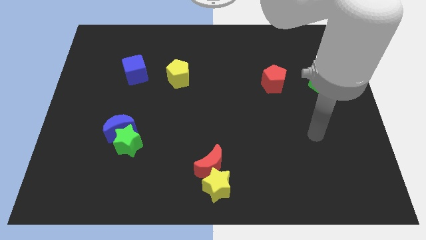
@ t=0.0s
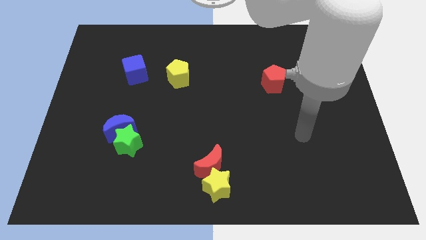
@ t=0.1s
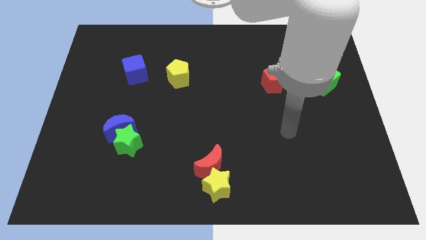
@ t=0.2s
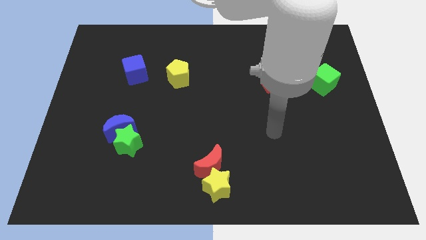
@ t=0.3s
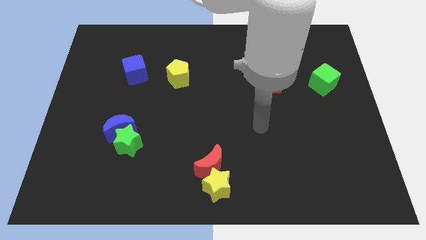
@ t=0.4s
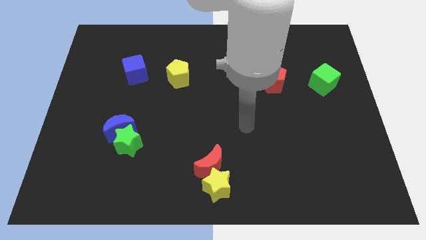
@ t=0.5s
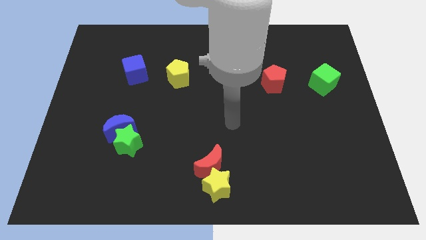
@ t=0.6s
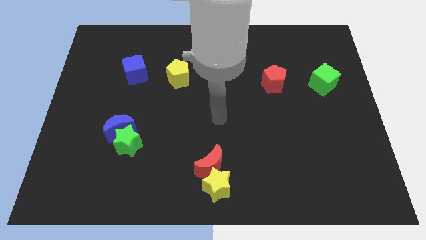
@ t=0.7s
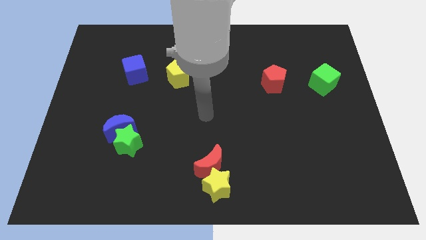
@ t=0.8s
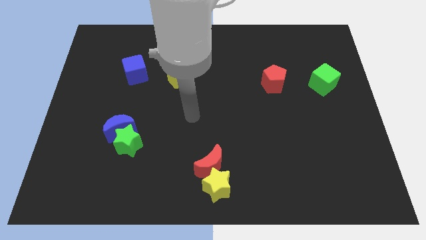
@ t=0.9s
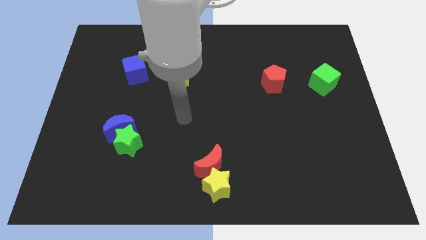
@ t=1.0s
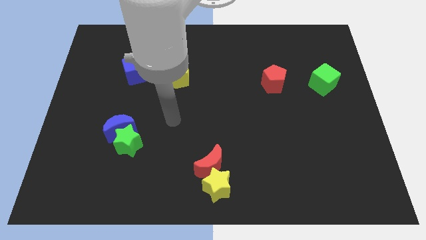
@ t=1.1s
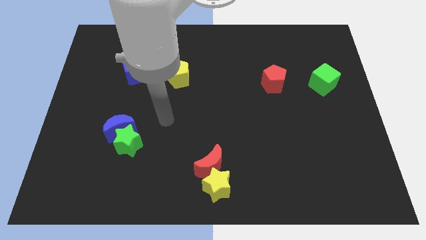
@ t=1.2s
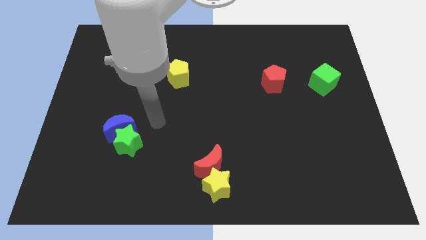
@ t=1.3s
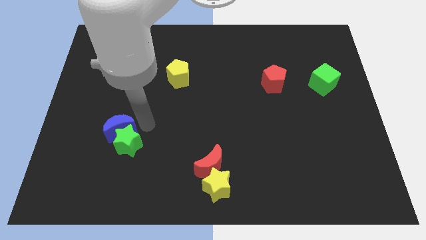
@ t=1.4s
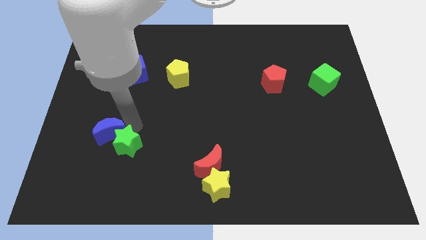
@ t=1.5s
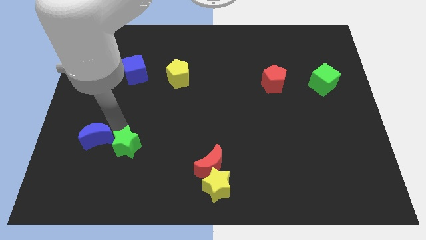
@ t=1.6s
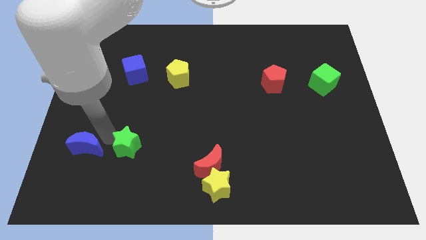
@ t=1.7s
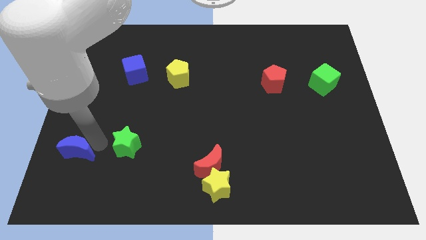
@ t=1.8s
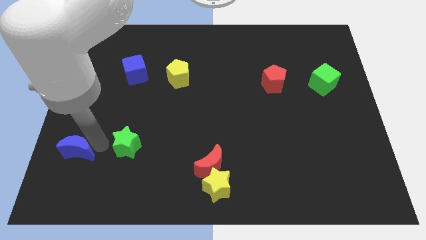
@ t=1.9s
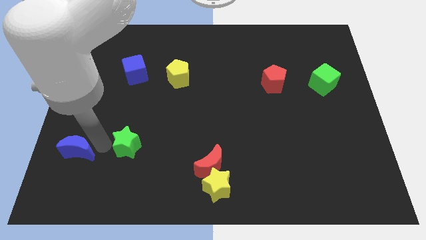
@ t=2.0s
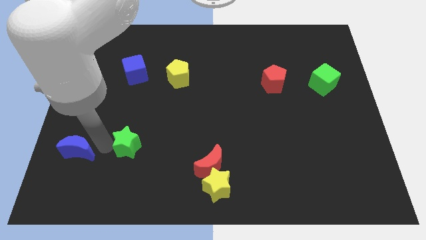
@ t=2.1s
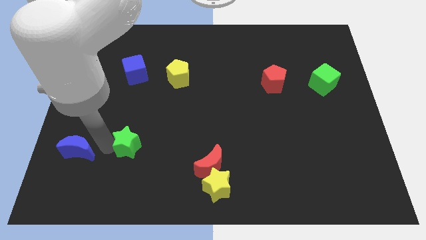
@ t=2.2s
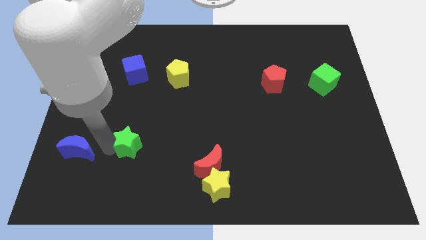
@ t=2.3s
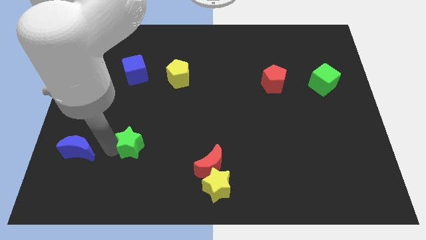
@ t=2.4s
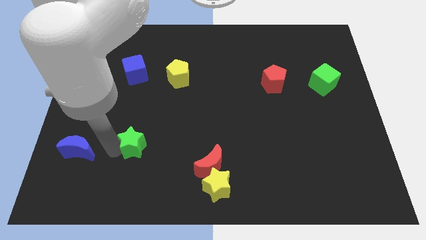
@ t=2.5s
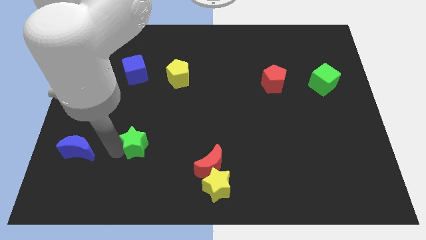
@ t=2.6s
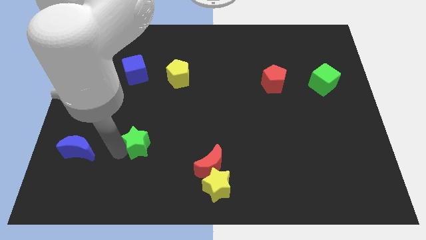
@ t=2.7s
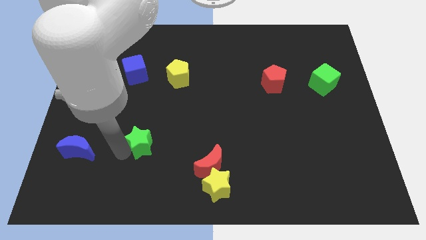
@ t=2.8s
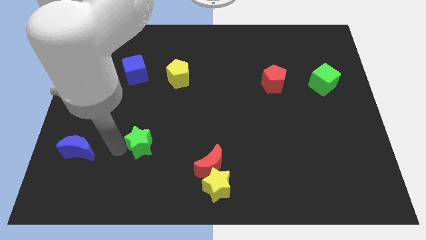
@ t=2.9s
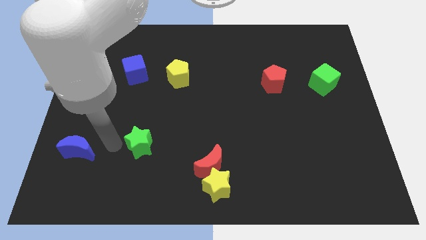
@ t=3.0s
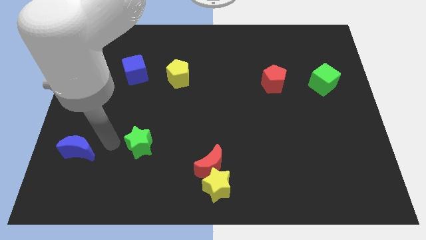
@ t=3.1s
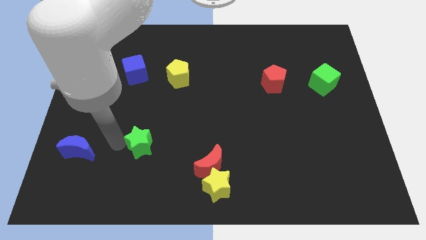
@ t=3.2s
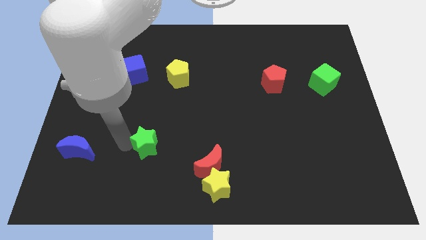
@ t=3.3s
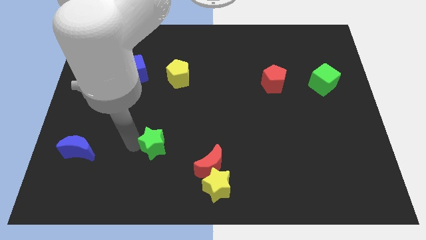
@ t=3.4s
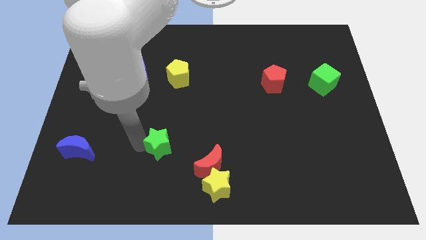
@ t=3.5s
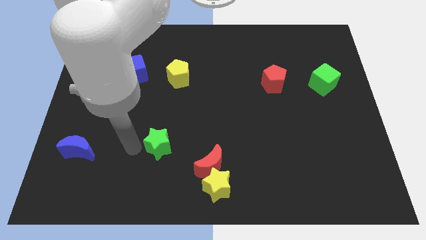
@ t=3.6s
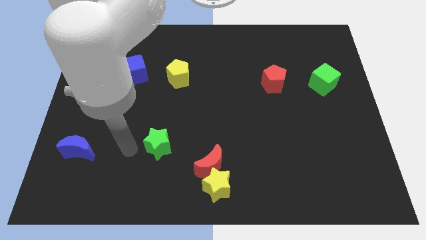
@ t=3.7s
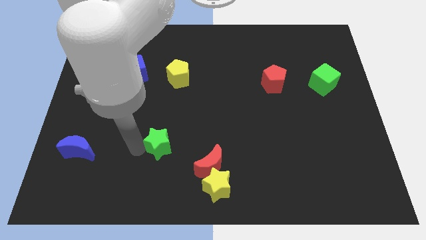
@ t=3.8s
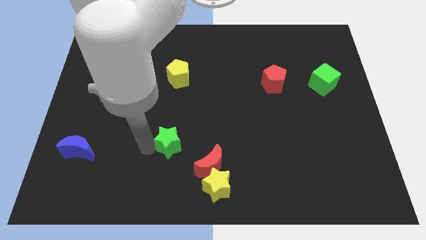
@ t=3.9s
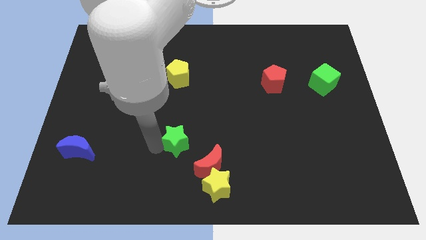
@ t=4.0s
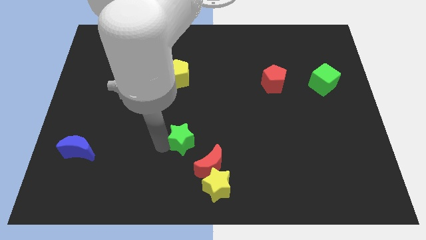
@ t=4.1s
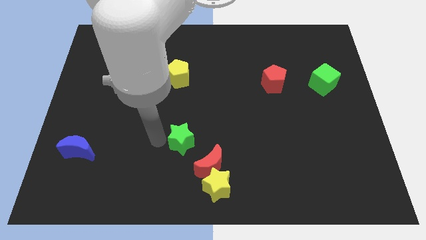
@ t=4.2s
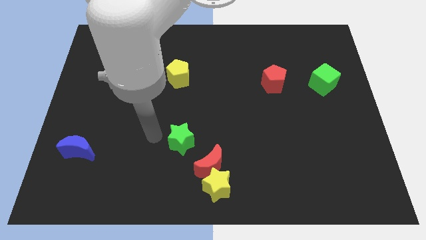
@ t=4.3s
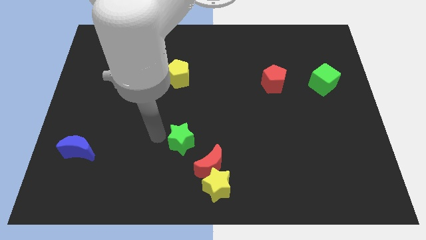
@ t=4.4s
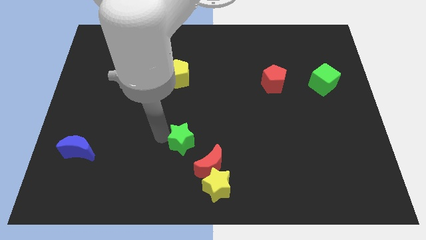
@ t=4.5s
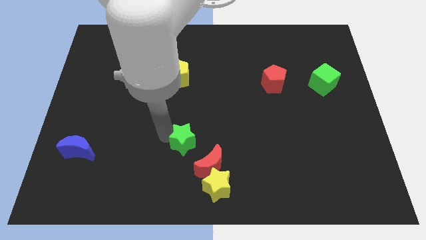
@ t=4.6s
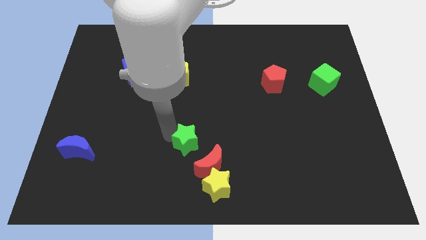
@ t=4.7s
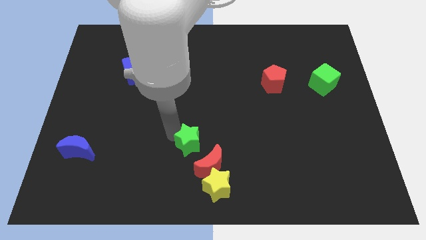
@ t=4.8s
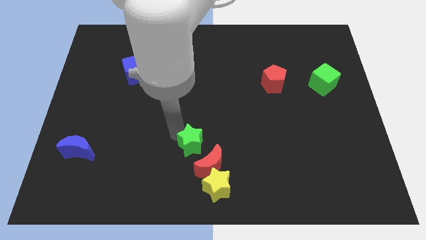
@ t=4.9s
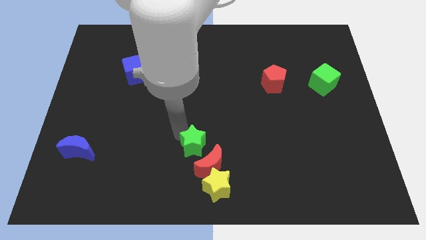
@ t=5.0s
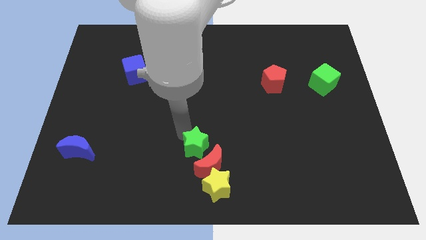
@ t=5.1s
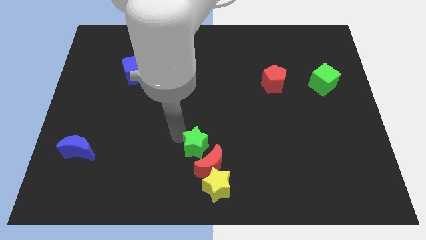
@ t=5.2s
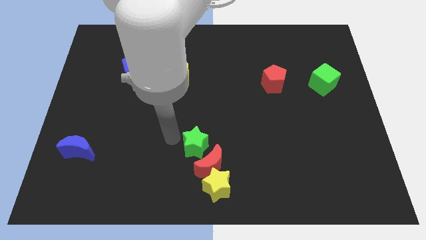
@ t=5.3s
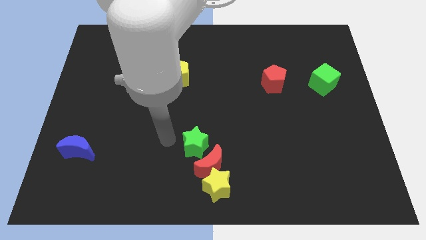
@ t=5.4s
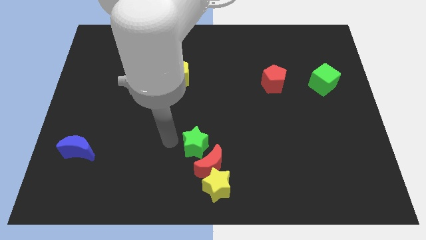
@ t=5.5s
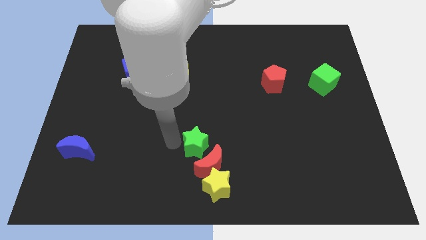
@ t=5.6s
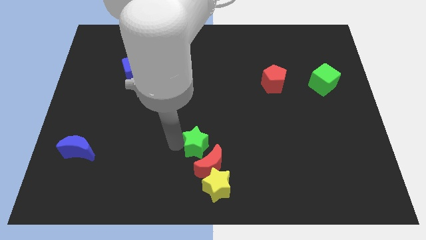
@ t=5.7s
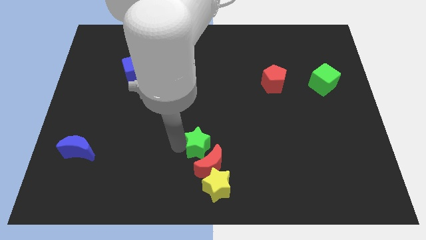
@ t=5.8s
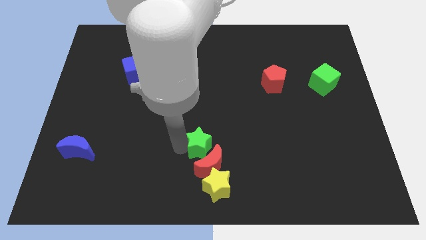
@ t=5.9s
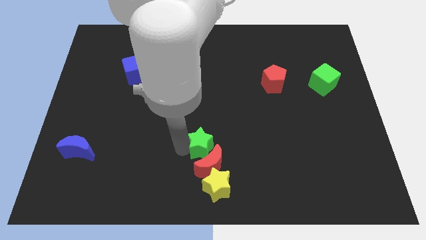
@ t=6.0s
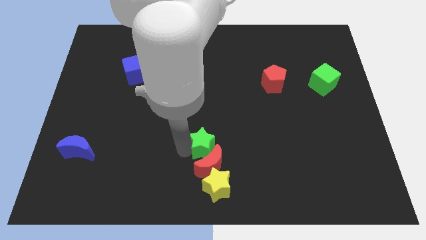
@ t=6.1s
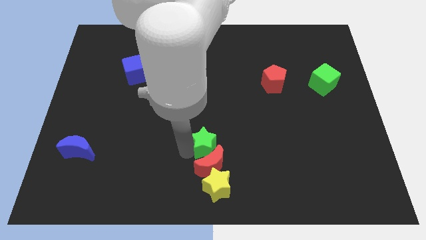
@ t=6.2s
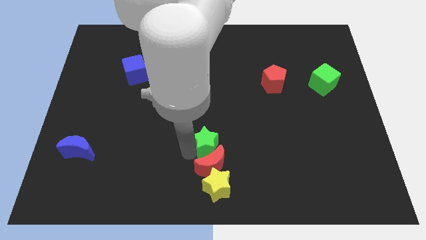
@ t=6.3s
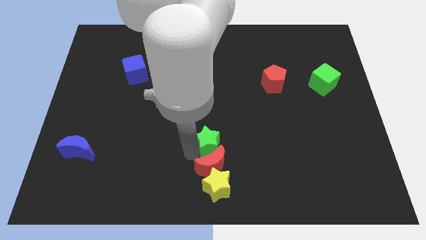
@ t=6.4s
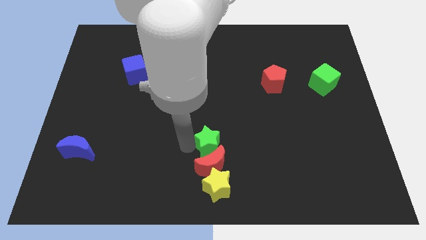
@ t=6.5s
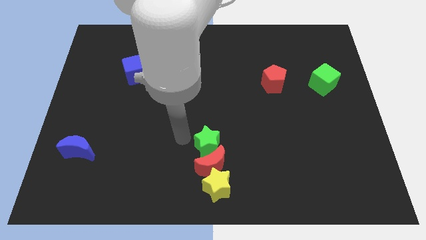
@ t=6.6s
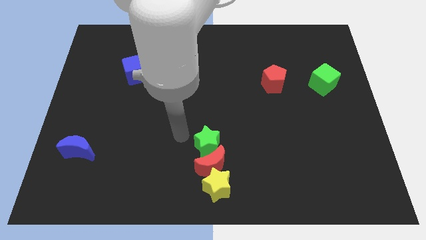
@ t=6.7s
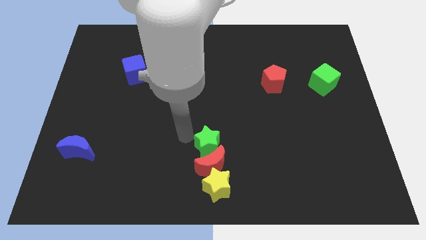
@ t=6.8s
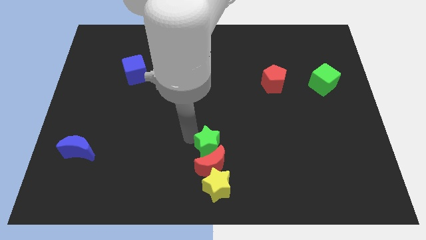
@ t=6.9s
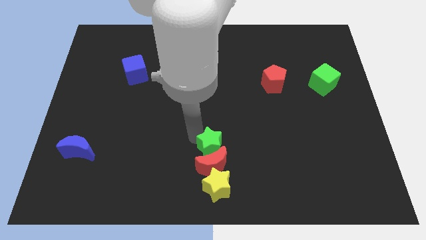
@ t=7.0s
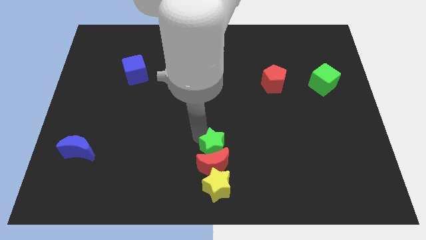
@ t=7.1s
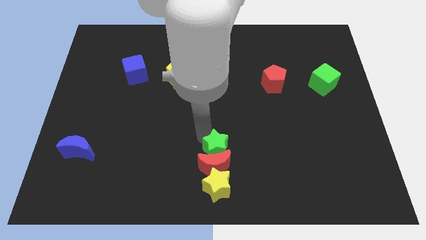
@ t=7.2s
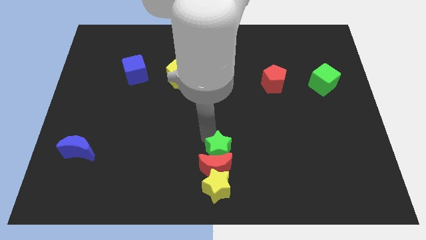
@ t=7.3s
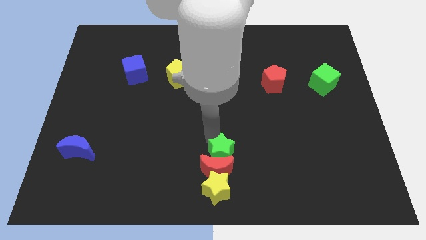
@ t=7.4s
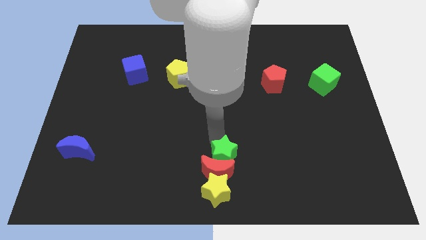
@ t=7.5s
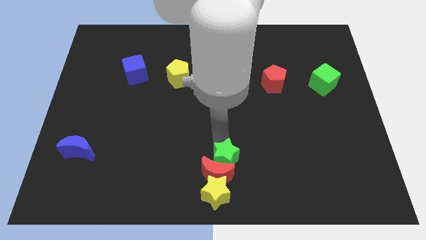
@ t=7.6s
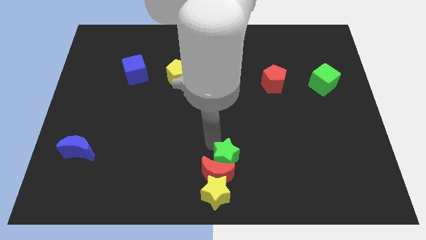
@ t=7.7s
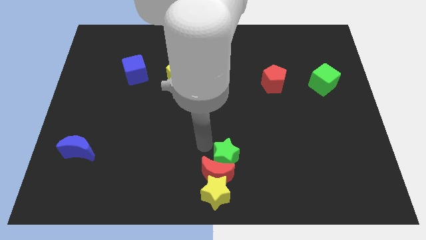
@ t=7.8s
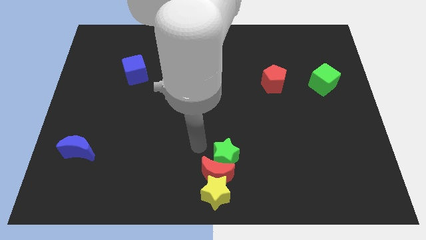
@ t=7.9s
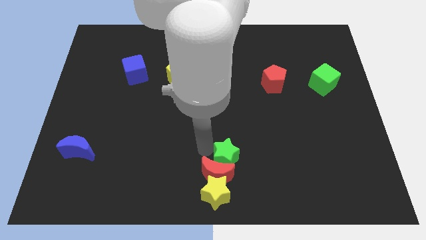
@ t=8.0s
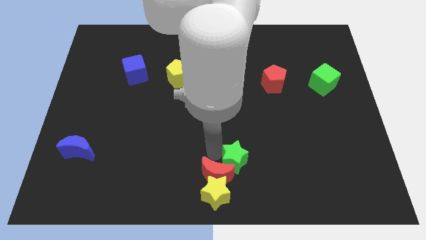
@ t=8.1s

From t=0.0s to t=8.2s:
slide the green star just right of the red moon

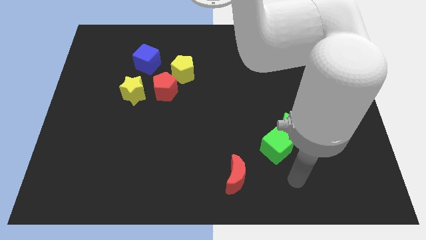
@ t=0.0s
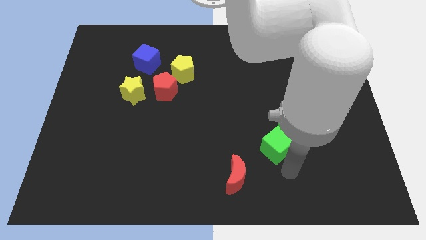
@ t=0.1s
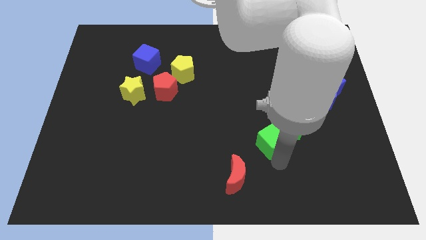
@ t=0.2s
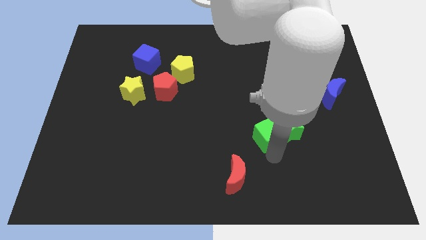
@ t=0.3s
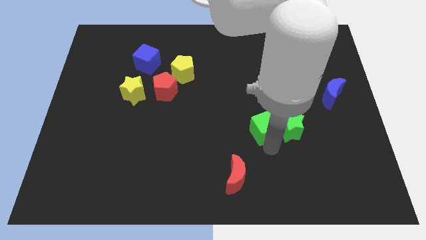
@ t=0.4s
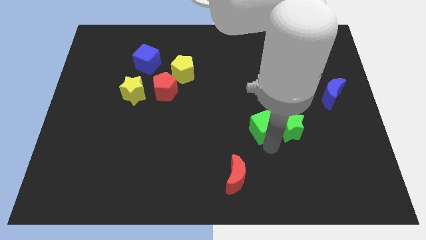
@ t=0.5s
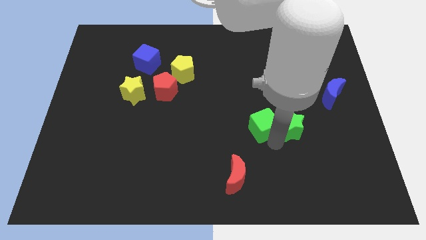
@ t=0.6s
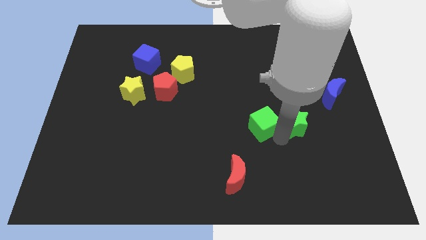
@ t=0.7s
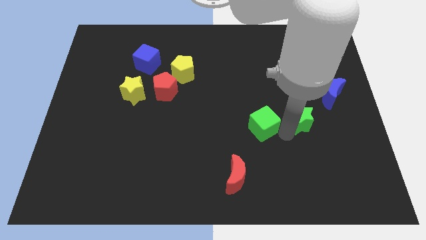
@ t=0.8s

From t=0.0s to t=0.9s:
put the green star diagonally down and to the left of the blue moon
